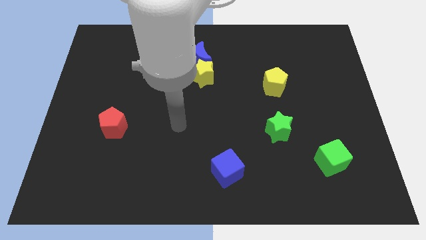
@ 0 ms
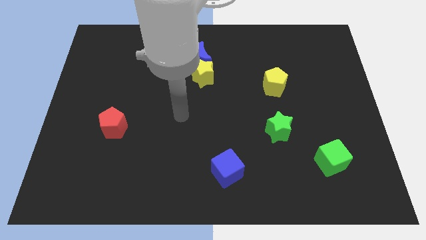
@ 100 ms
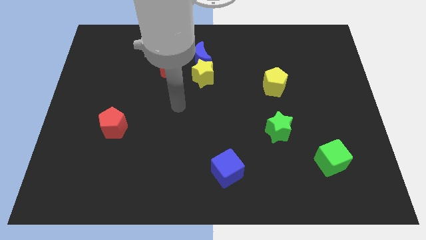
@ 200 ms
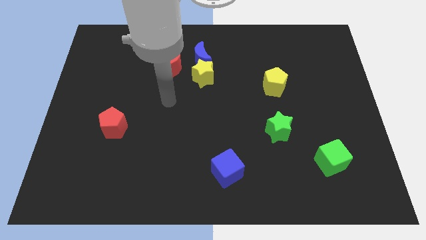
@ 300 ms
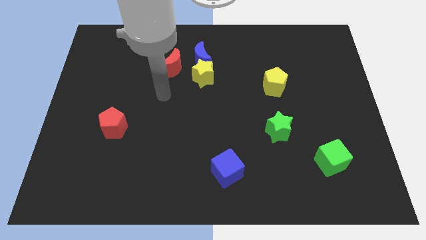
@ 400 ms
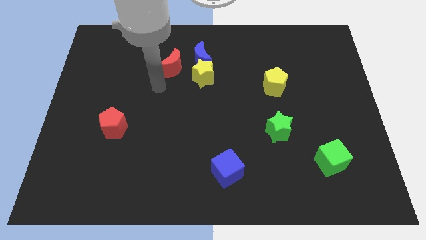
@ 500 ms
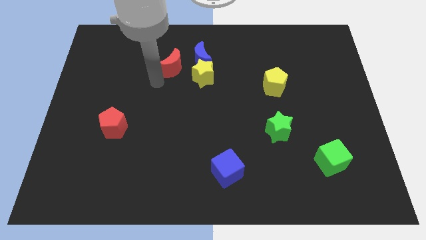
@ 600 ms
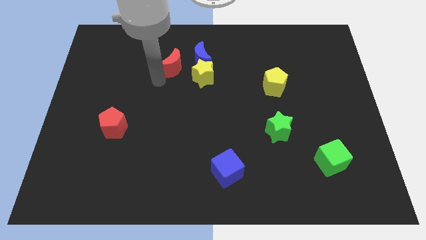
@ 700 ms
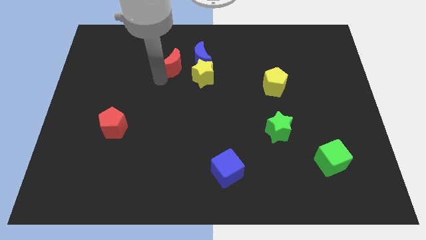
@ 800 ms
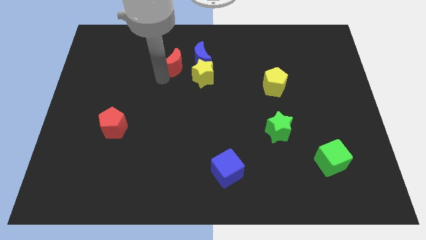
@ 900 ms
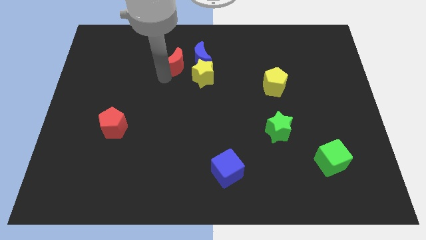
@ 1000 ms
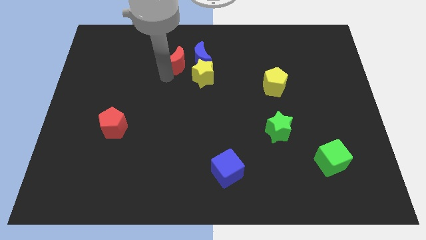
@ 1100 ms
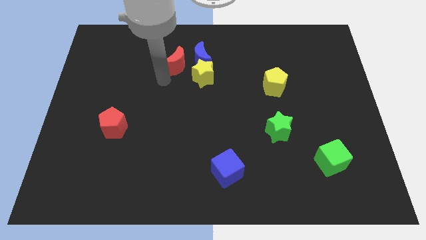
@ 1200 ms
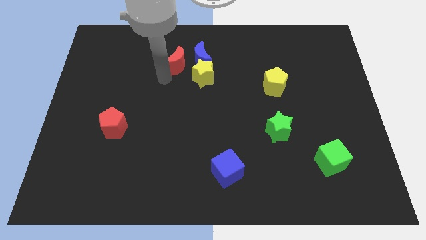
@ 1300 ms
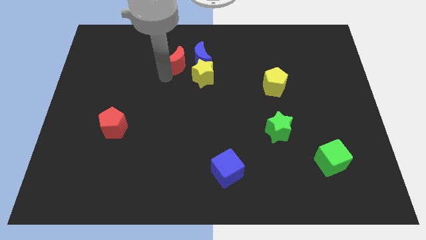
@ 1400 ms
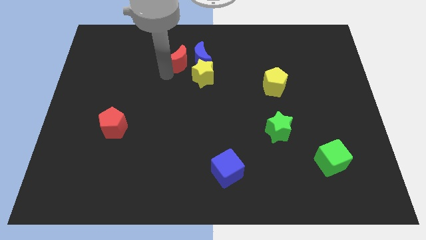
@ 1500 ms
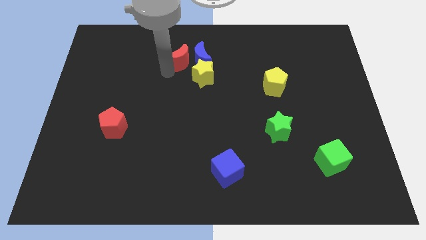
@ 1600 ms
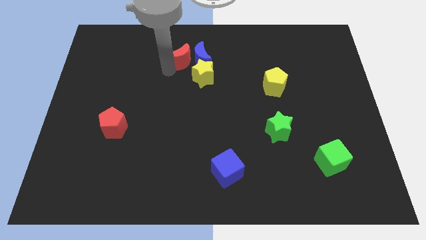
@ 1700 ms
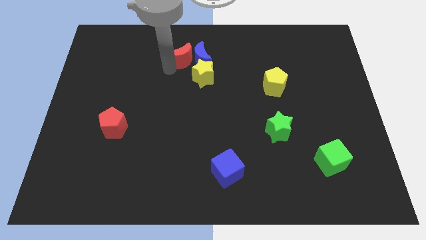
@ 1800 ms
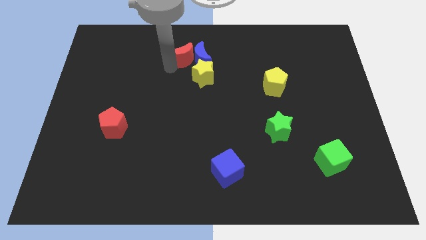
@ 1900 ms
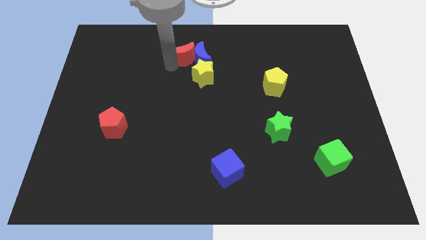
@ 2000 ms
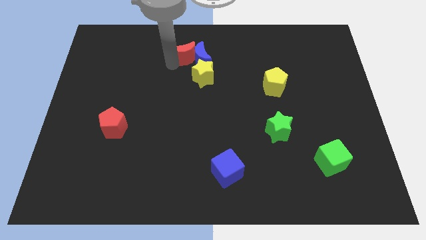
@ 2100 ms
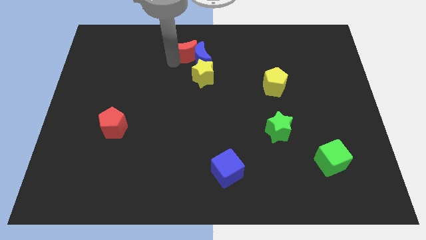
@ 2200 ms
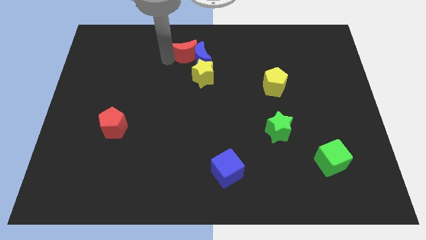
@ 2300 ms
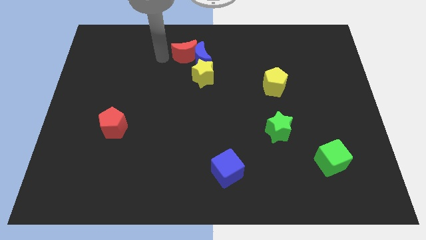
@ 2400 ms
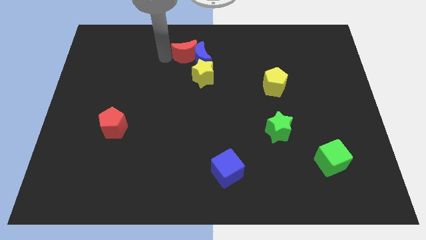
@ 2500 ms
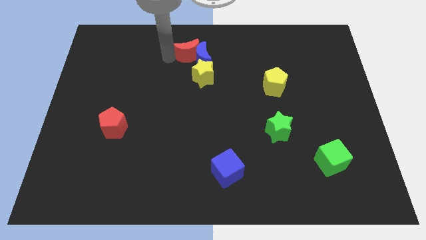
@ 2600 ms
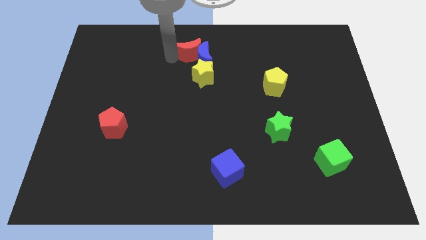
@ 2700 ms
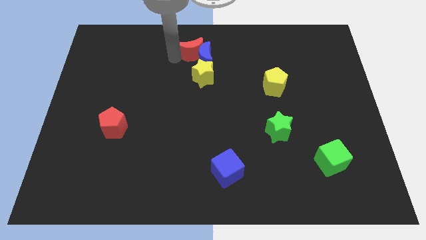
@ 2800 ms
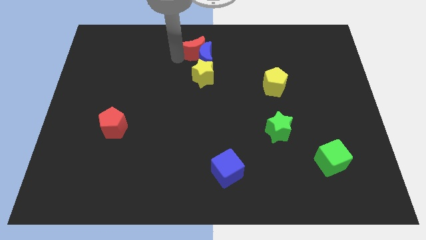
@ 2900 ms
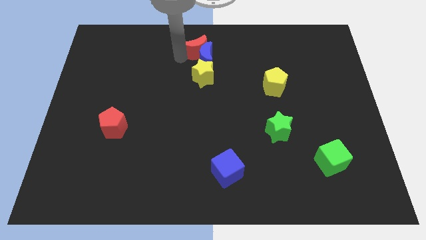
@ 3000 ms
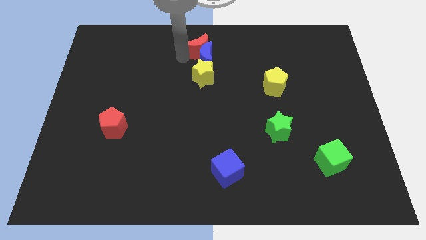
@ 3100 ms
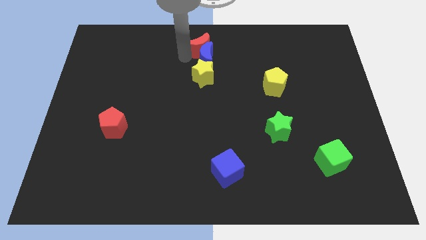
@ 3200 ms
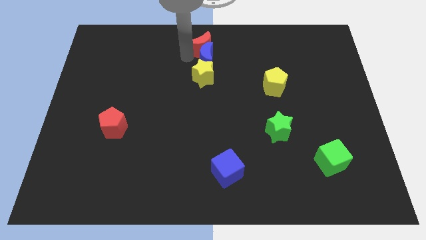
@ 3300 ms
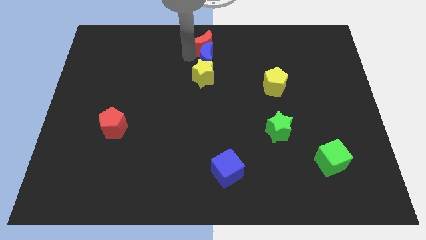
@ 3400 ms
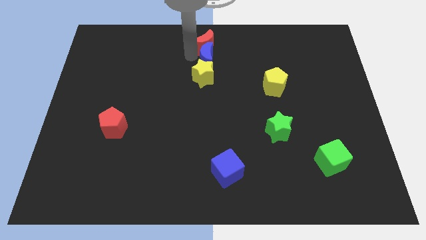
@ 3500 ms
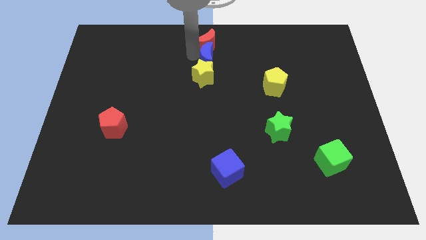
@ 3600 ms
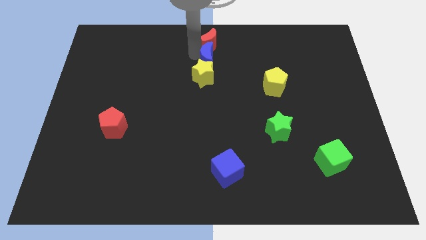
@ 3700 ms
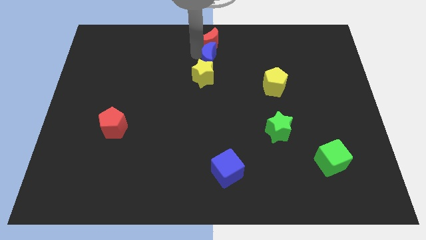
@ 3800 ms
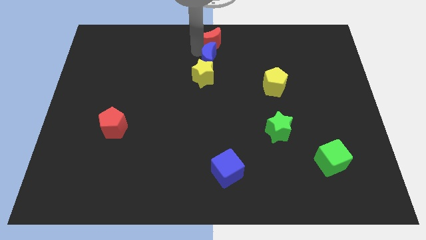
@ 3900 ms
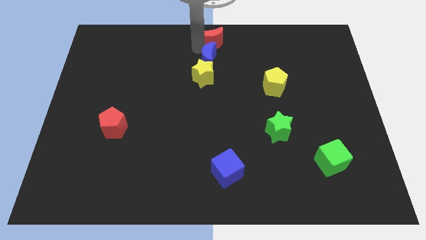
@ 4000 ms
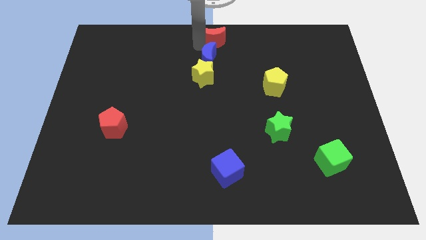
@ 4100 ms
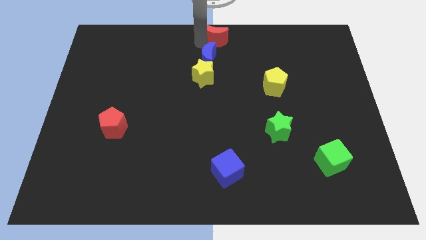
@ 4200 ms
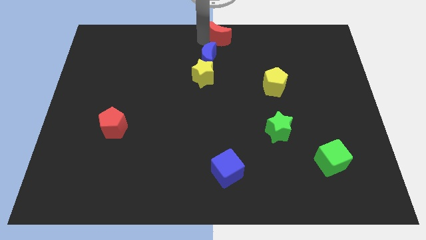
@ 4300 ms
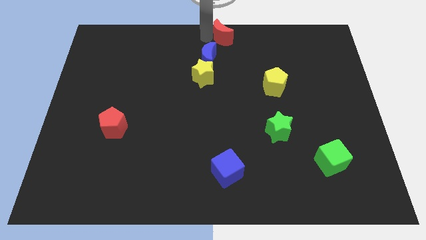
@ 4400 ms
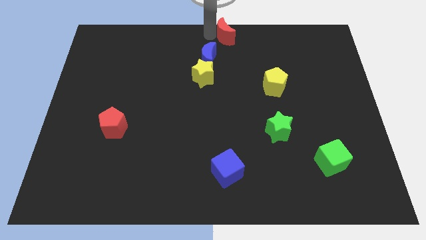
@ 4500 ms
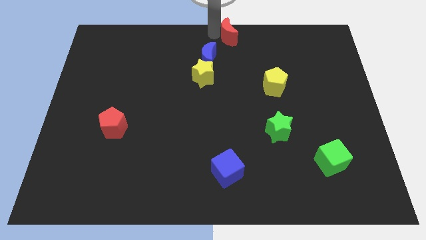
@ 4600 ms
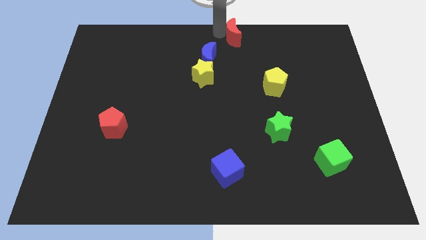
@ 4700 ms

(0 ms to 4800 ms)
move the red moon to the right somewhat

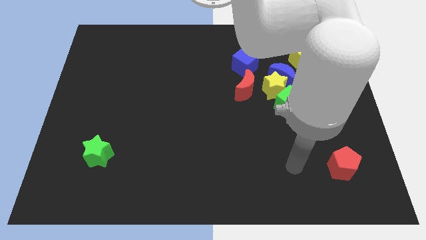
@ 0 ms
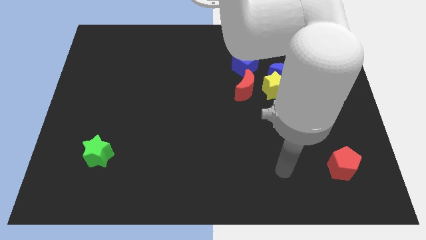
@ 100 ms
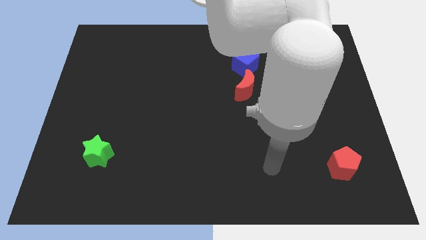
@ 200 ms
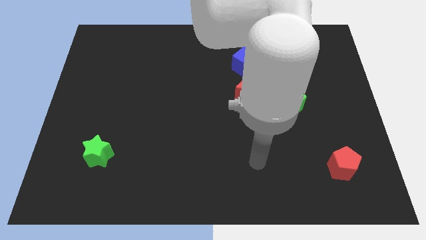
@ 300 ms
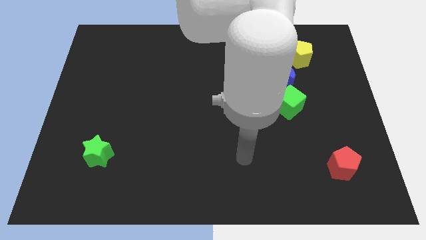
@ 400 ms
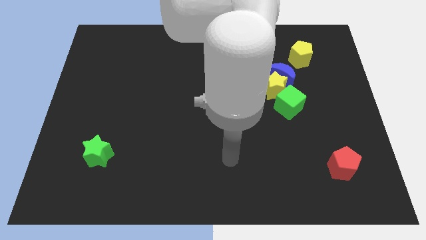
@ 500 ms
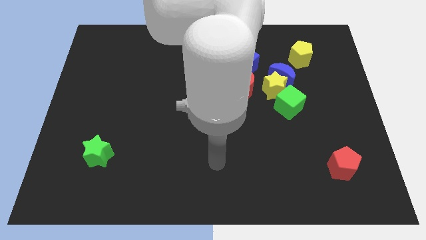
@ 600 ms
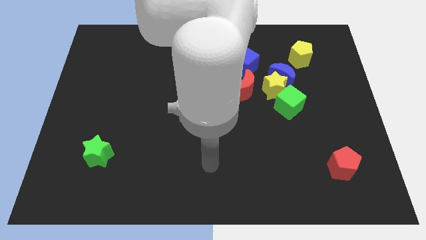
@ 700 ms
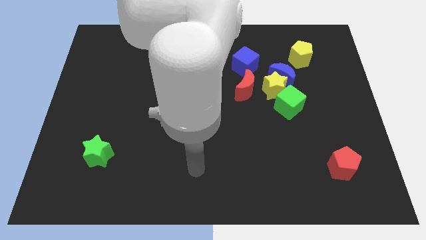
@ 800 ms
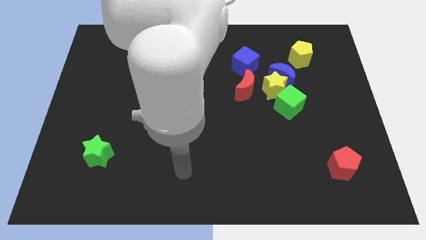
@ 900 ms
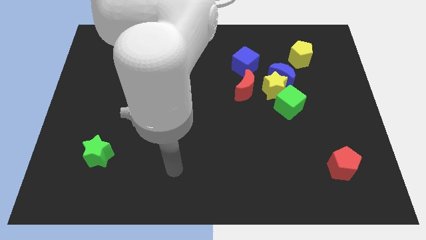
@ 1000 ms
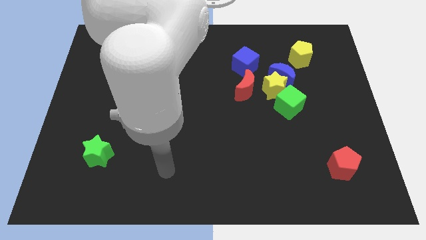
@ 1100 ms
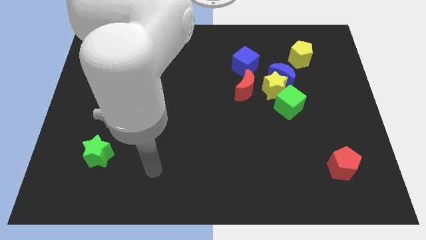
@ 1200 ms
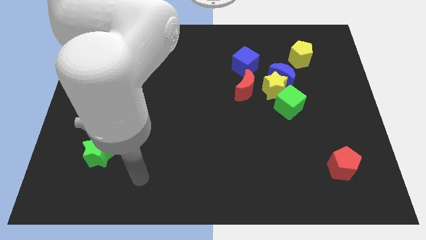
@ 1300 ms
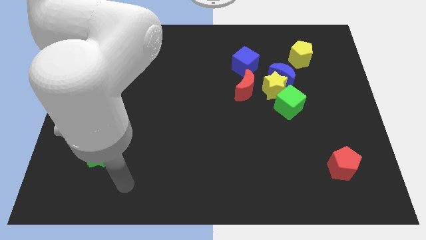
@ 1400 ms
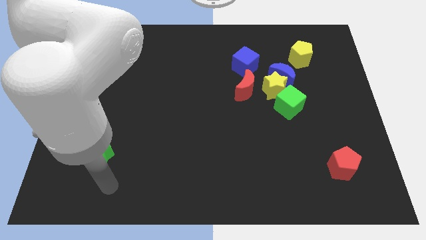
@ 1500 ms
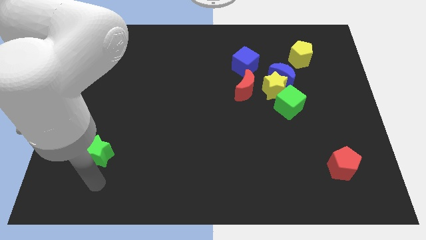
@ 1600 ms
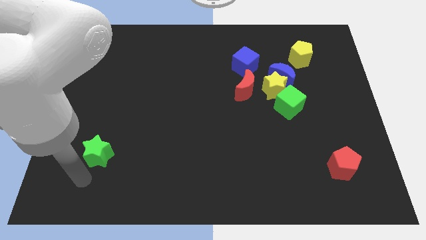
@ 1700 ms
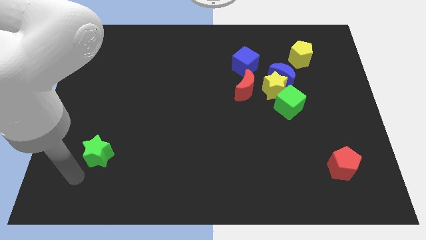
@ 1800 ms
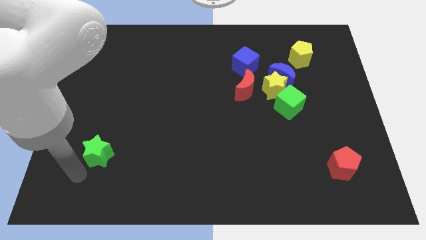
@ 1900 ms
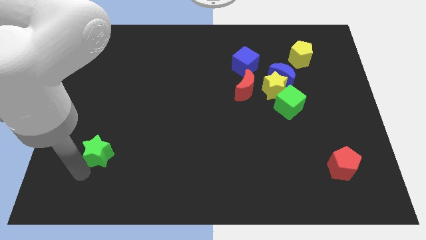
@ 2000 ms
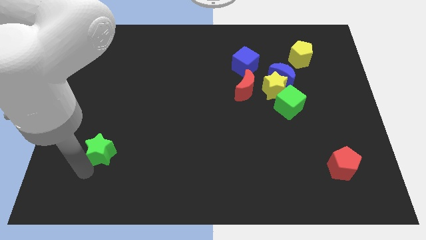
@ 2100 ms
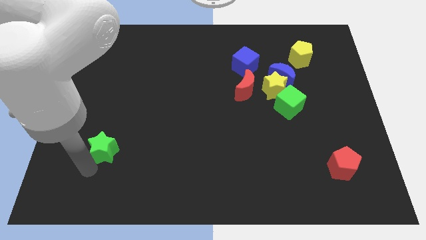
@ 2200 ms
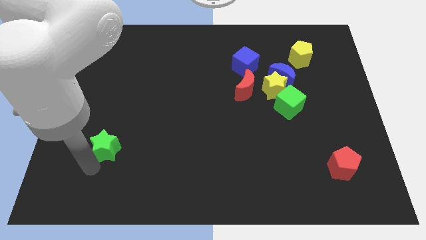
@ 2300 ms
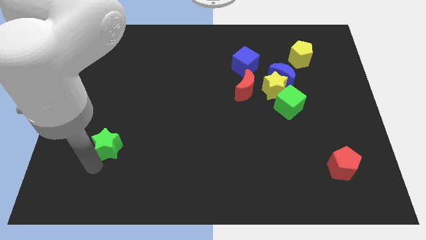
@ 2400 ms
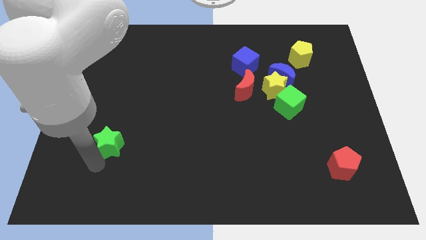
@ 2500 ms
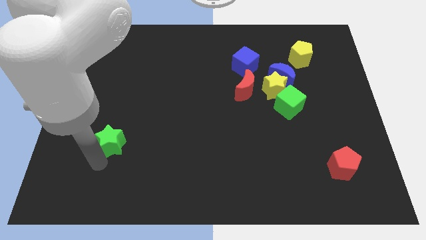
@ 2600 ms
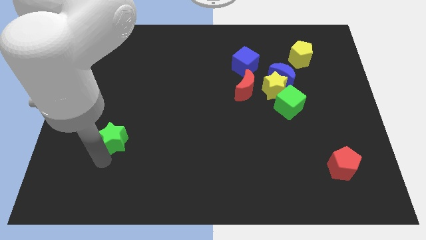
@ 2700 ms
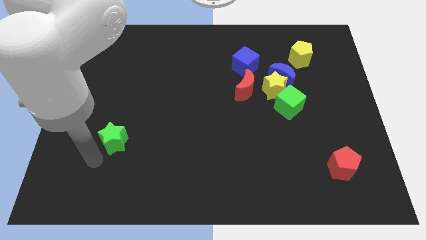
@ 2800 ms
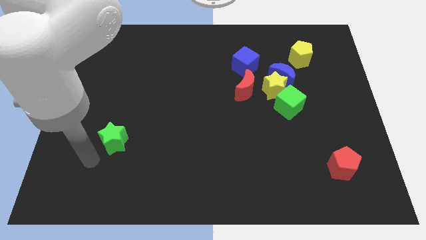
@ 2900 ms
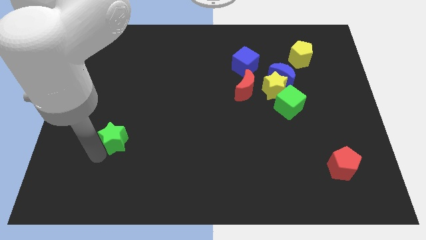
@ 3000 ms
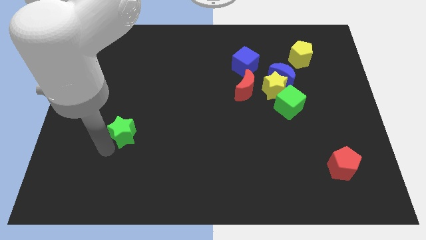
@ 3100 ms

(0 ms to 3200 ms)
slide the green star diagonally up and right a little bit
